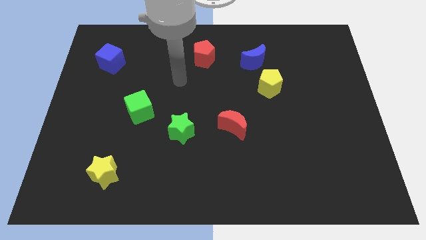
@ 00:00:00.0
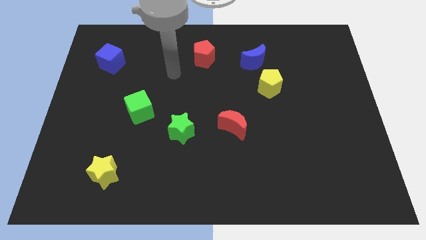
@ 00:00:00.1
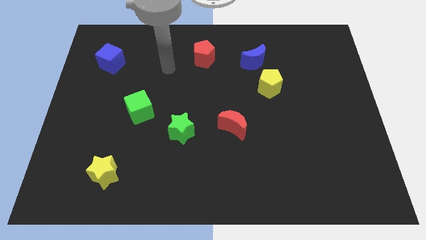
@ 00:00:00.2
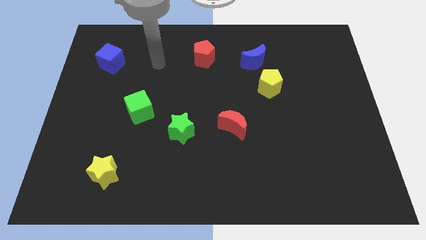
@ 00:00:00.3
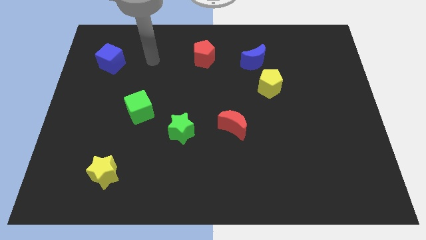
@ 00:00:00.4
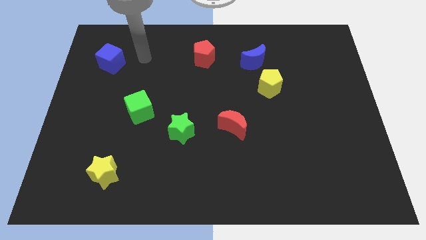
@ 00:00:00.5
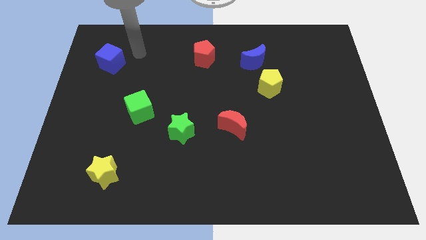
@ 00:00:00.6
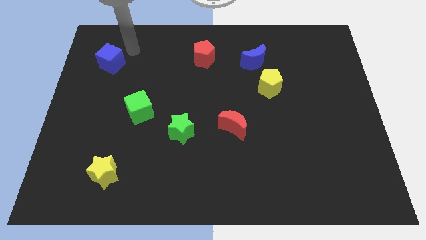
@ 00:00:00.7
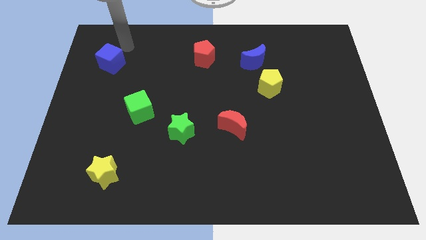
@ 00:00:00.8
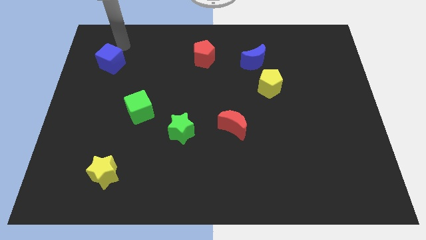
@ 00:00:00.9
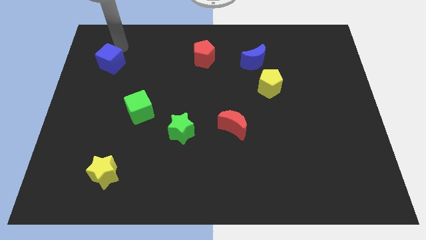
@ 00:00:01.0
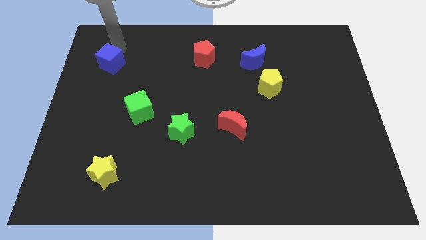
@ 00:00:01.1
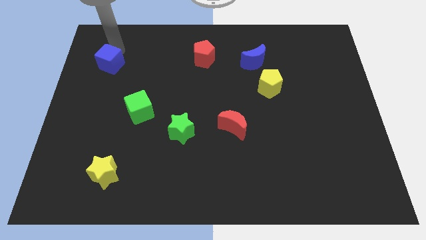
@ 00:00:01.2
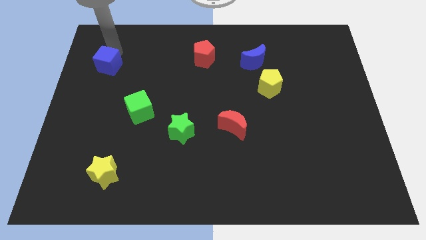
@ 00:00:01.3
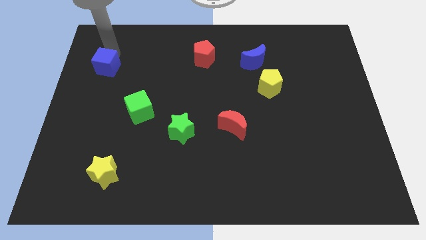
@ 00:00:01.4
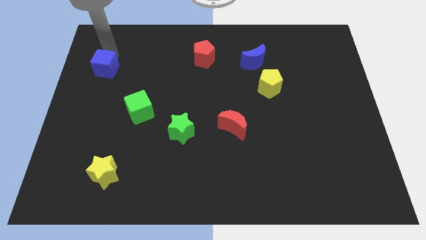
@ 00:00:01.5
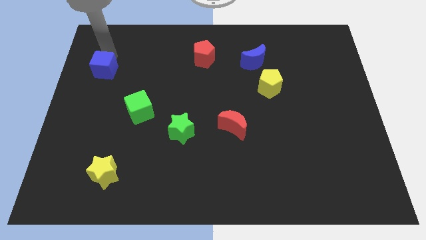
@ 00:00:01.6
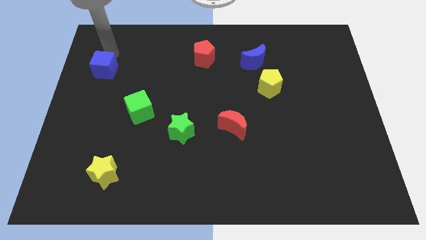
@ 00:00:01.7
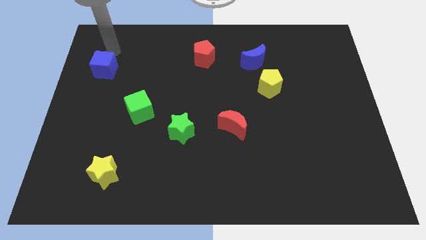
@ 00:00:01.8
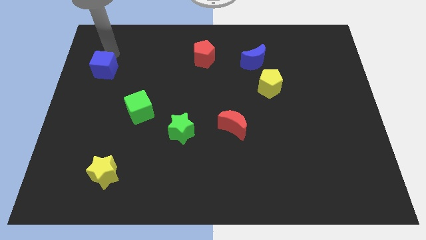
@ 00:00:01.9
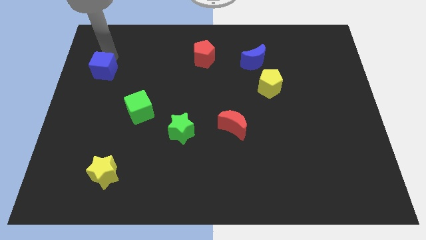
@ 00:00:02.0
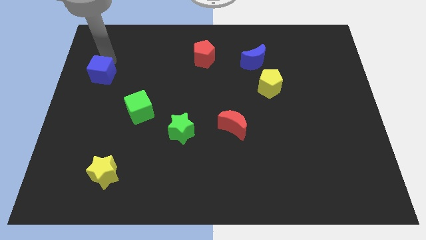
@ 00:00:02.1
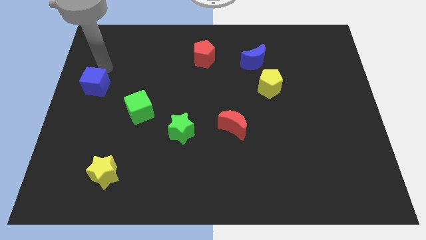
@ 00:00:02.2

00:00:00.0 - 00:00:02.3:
slide the blue cube down a little bit

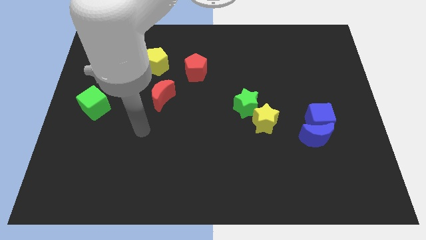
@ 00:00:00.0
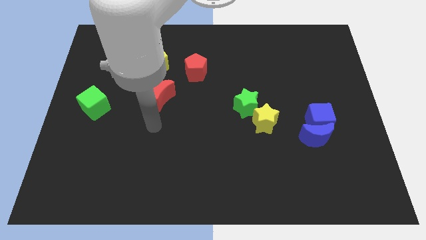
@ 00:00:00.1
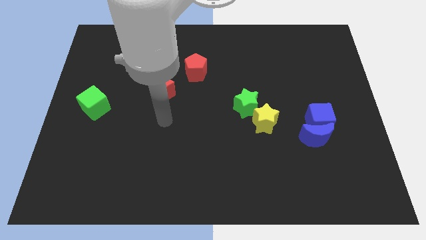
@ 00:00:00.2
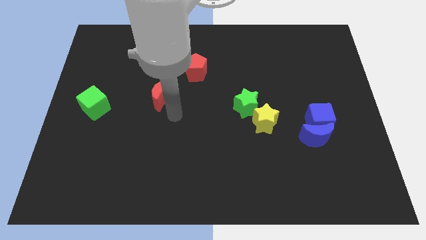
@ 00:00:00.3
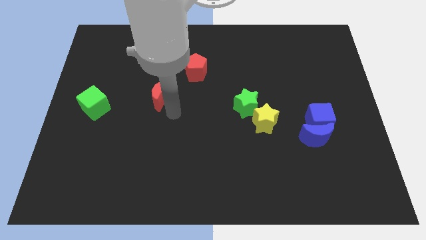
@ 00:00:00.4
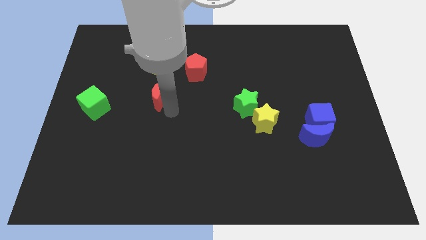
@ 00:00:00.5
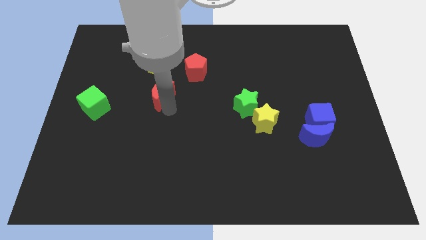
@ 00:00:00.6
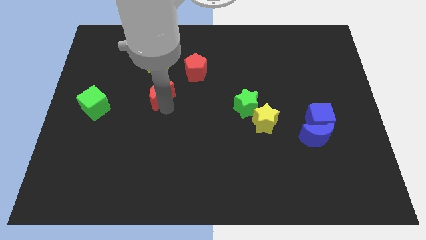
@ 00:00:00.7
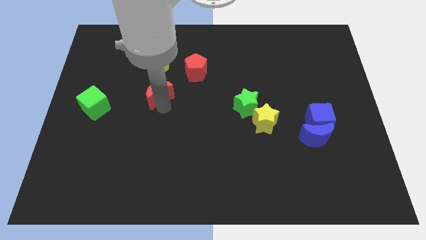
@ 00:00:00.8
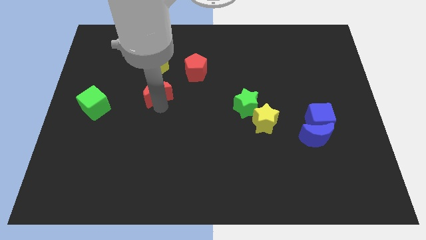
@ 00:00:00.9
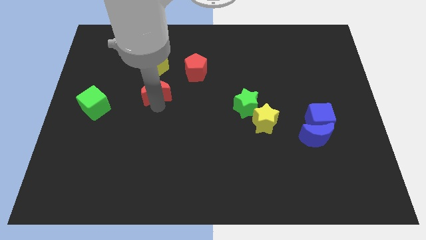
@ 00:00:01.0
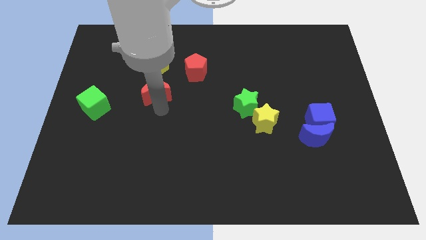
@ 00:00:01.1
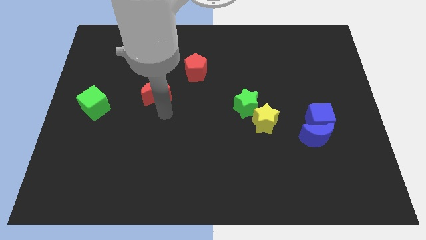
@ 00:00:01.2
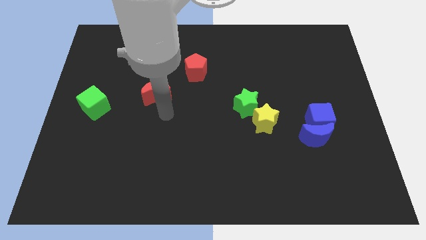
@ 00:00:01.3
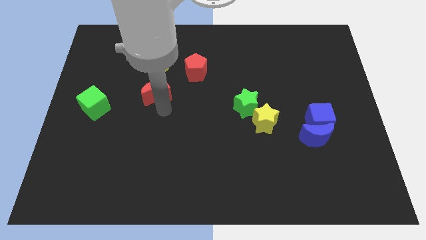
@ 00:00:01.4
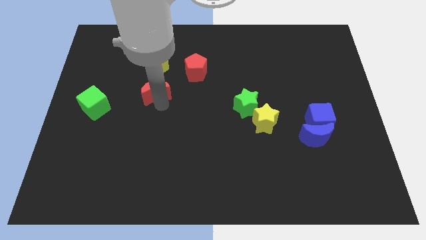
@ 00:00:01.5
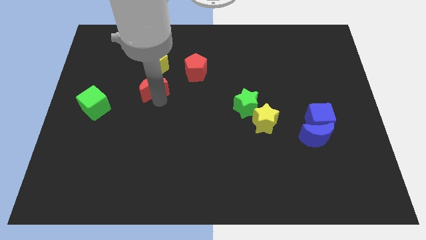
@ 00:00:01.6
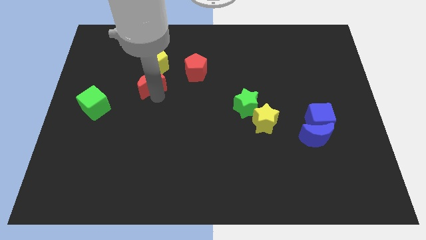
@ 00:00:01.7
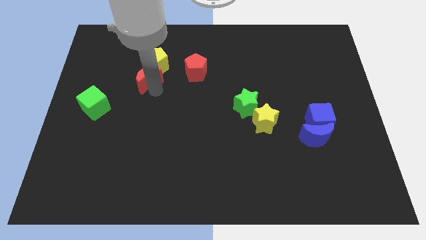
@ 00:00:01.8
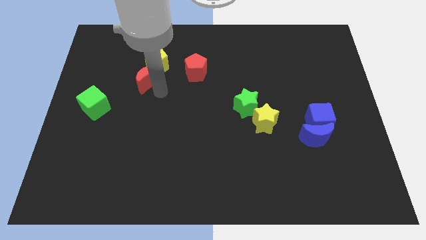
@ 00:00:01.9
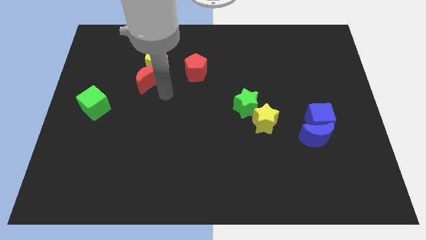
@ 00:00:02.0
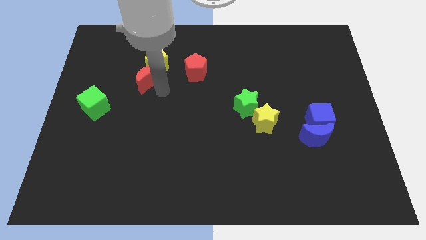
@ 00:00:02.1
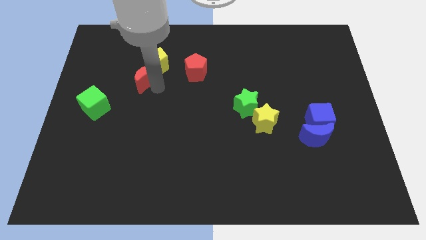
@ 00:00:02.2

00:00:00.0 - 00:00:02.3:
slide the red moon a little bit up and left

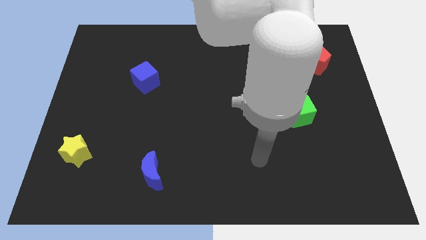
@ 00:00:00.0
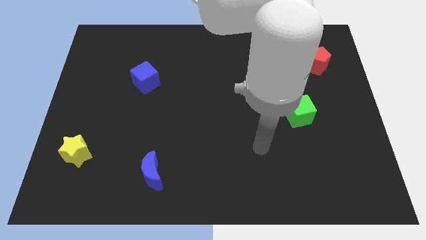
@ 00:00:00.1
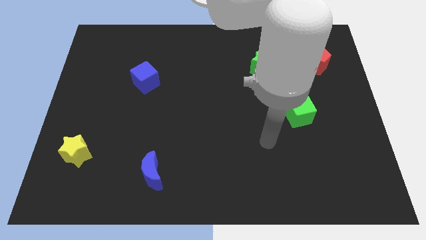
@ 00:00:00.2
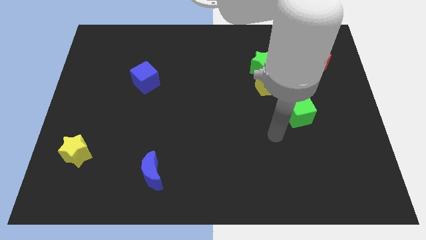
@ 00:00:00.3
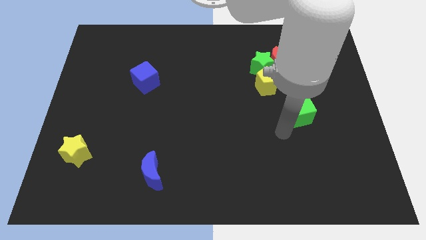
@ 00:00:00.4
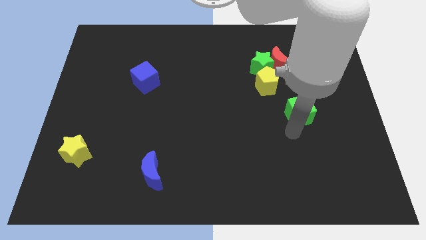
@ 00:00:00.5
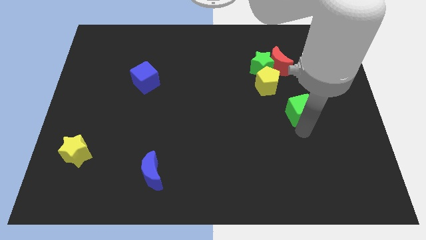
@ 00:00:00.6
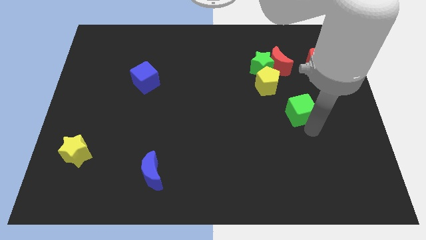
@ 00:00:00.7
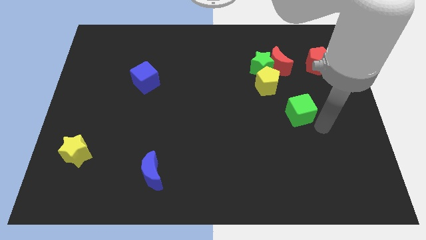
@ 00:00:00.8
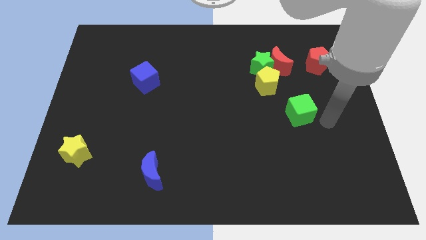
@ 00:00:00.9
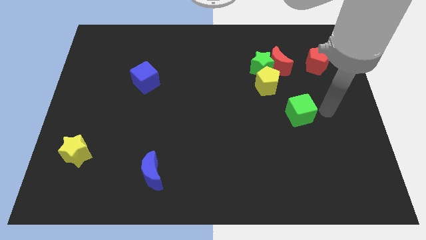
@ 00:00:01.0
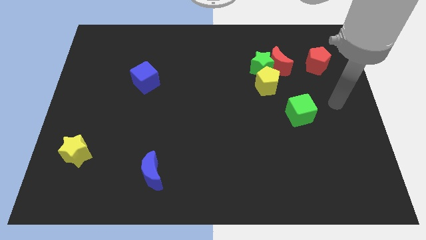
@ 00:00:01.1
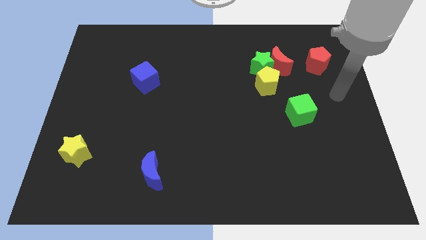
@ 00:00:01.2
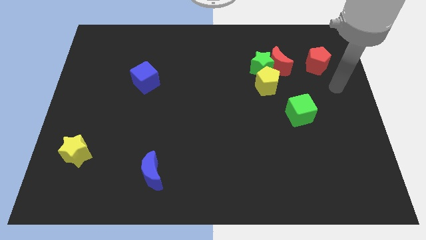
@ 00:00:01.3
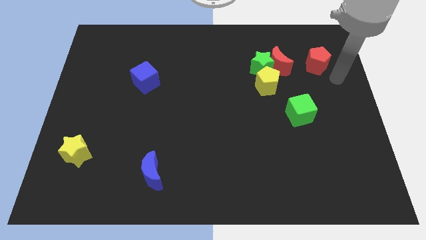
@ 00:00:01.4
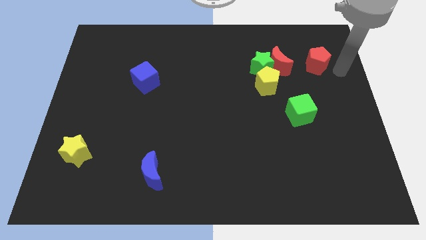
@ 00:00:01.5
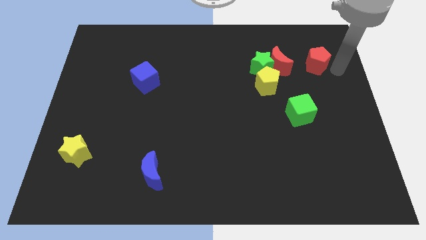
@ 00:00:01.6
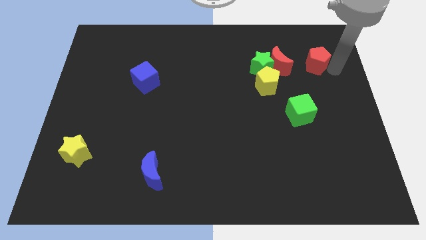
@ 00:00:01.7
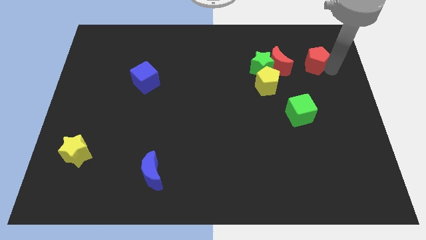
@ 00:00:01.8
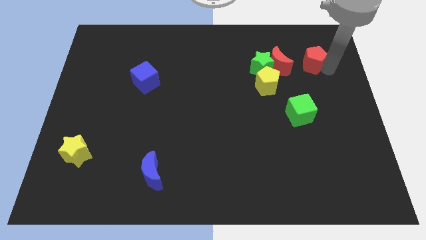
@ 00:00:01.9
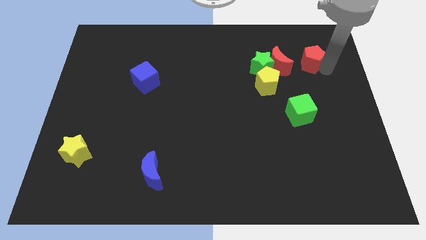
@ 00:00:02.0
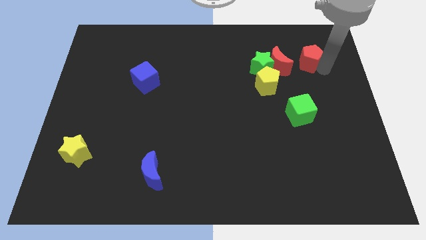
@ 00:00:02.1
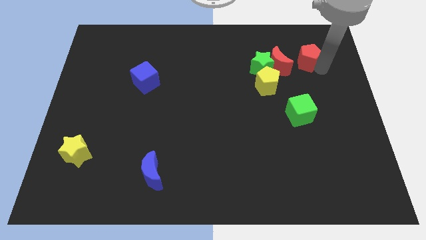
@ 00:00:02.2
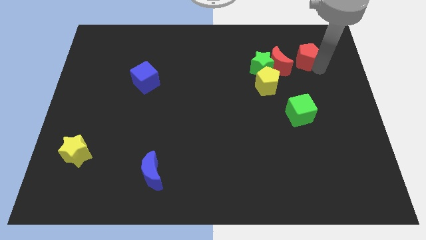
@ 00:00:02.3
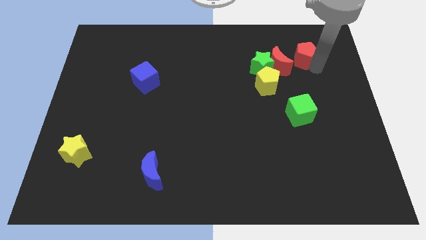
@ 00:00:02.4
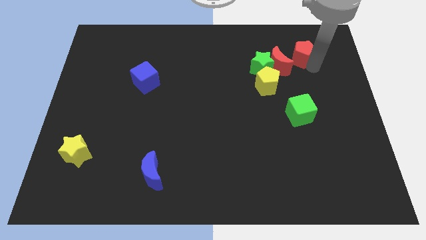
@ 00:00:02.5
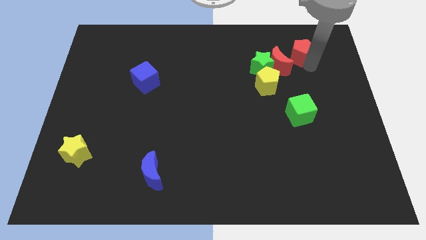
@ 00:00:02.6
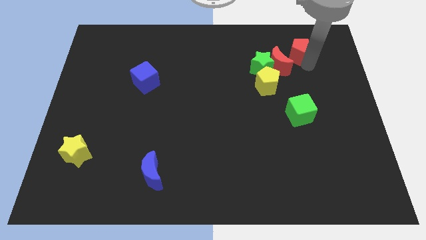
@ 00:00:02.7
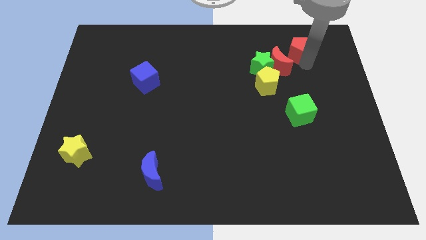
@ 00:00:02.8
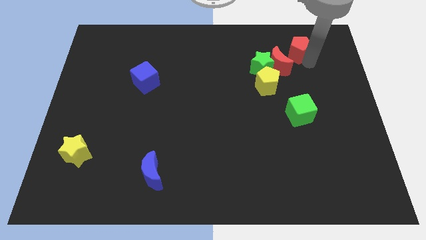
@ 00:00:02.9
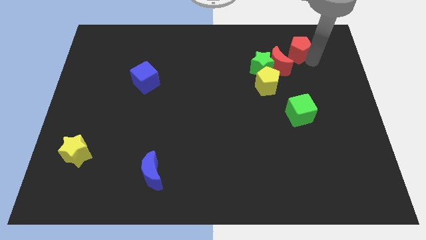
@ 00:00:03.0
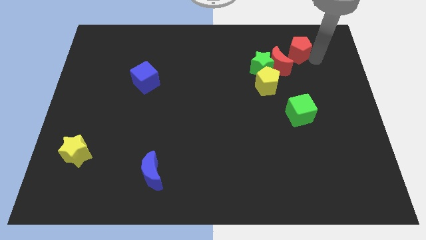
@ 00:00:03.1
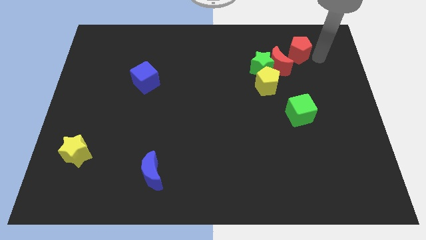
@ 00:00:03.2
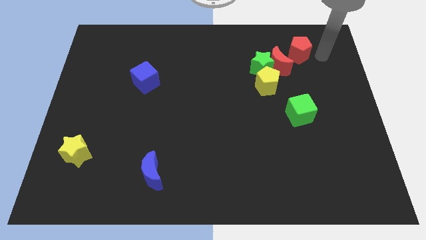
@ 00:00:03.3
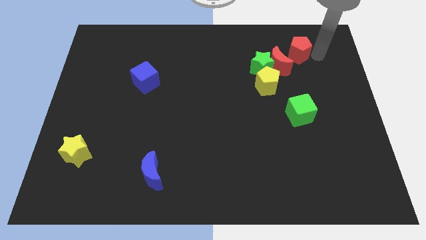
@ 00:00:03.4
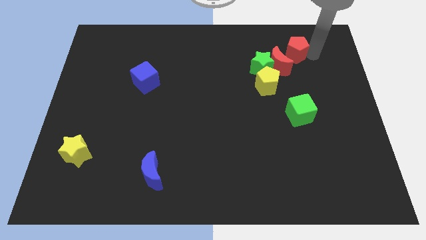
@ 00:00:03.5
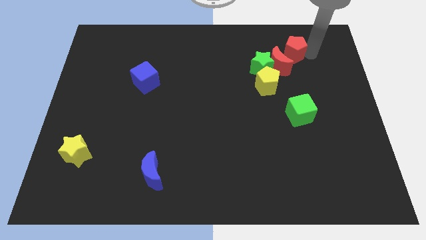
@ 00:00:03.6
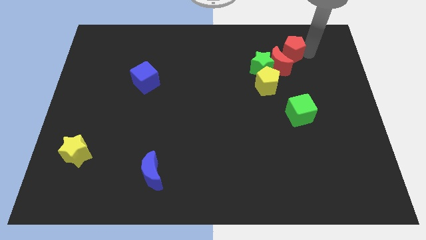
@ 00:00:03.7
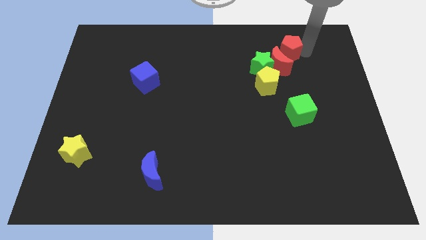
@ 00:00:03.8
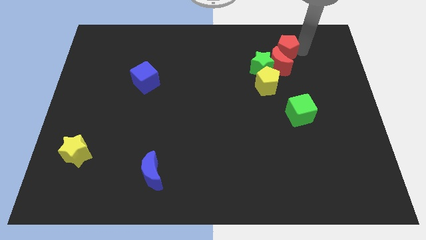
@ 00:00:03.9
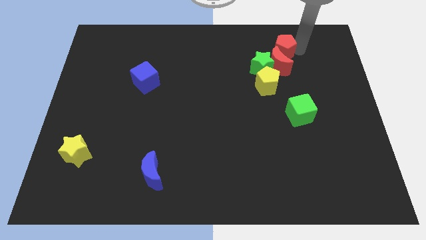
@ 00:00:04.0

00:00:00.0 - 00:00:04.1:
push the red pentagon a little to the left
